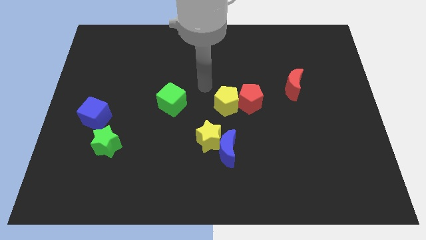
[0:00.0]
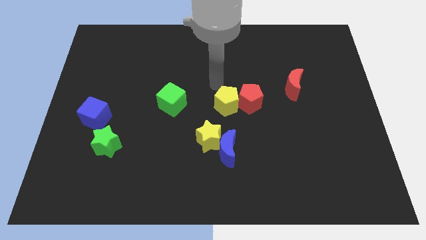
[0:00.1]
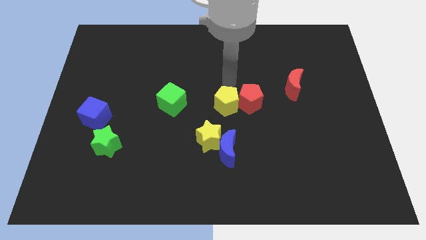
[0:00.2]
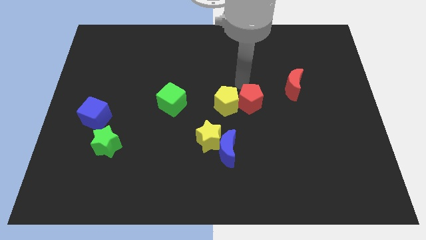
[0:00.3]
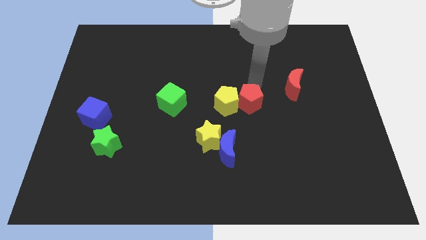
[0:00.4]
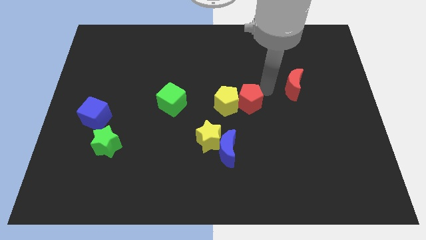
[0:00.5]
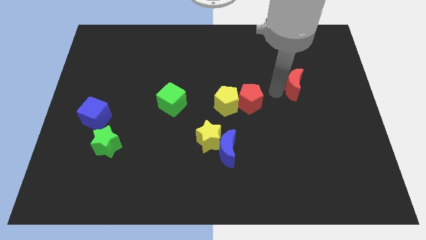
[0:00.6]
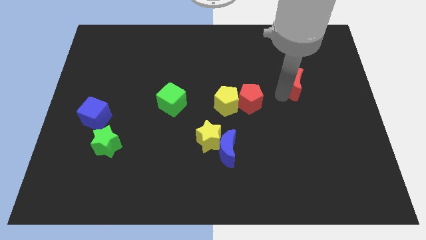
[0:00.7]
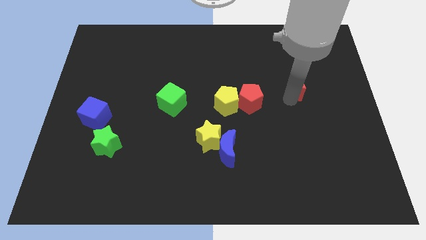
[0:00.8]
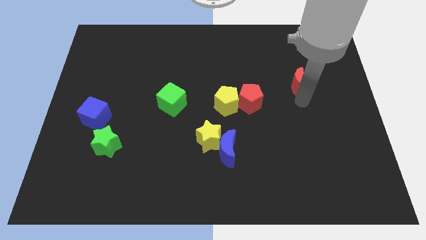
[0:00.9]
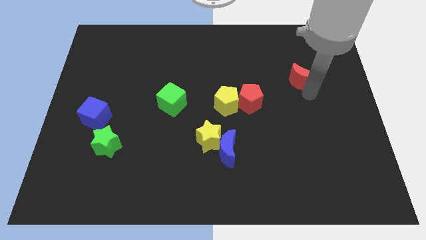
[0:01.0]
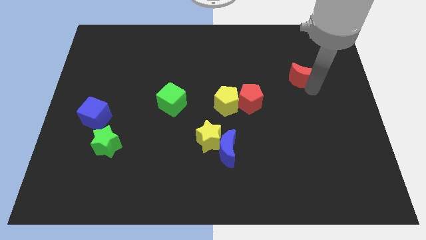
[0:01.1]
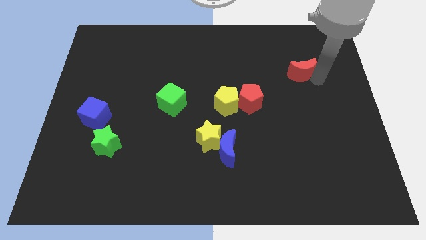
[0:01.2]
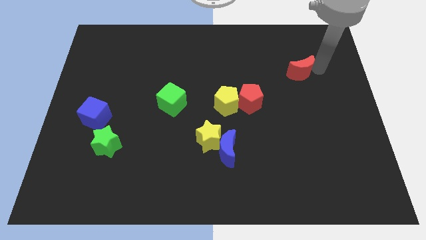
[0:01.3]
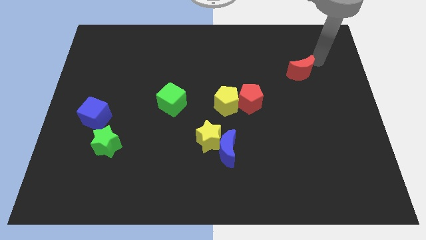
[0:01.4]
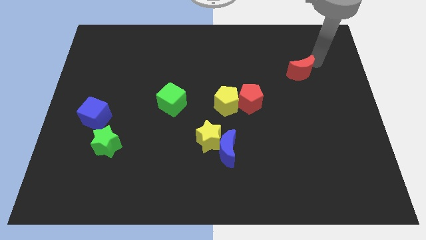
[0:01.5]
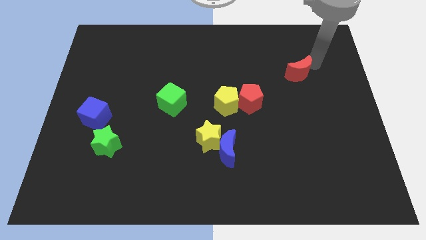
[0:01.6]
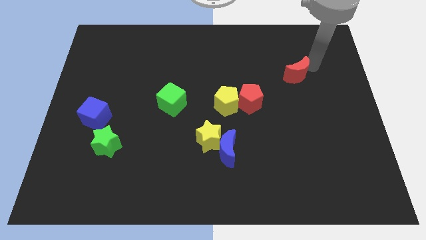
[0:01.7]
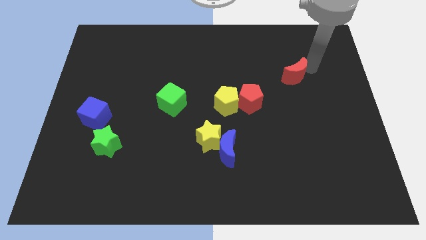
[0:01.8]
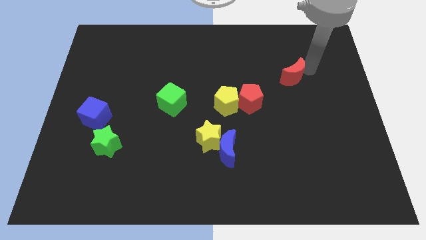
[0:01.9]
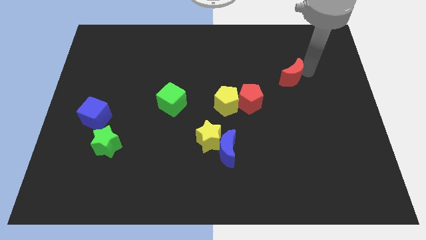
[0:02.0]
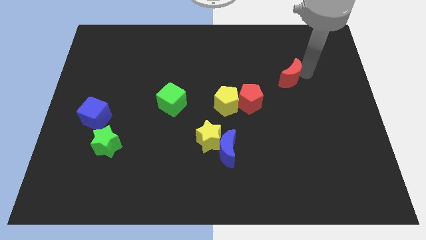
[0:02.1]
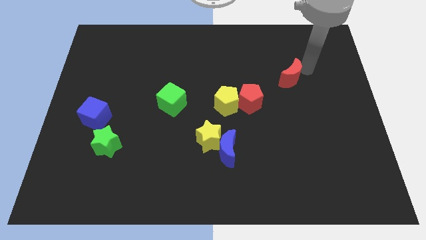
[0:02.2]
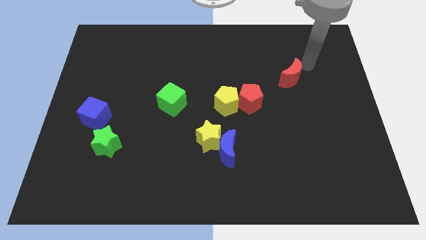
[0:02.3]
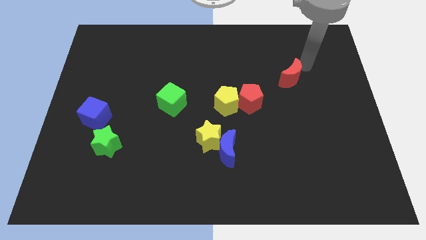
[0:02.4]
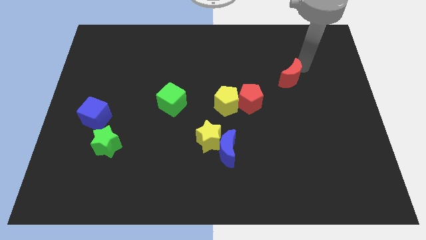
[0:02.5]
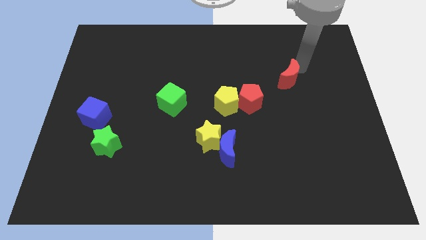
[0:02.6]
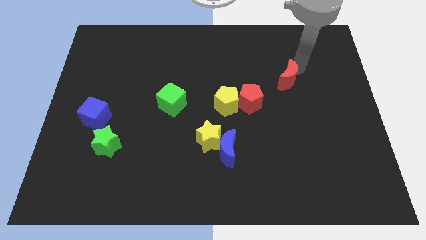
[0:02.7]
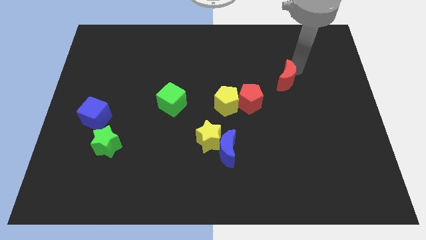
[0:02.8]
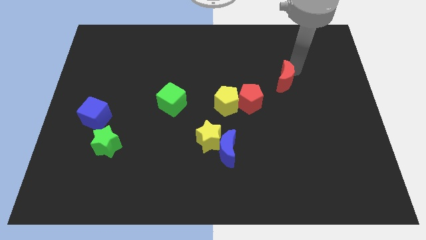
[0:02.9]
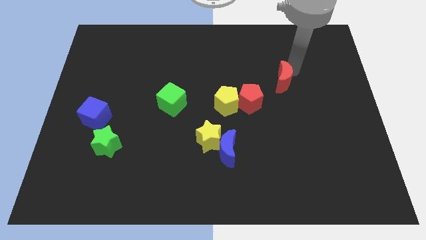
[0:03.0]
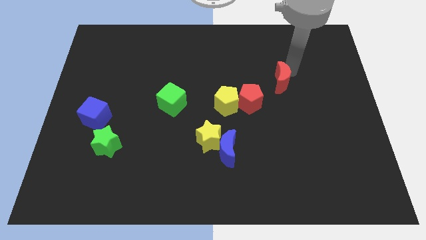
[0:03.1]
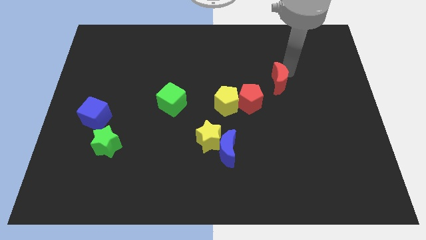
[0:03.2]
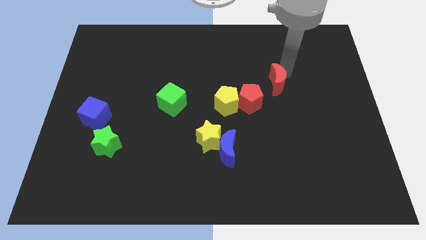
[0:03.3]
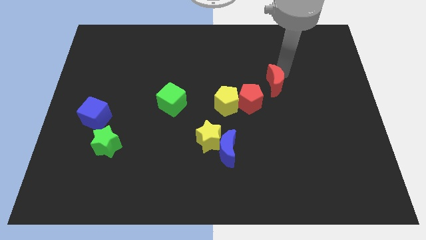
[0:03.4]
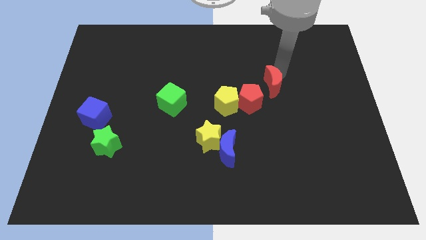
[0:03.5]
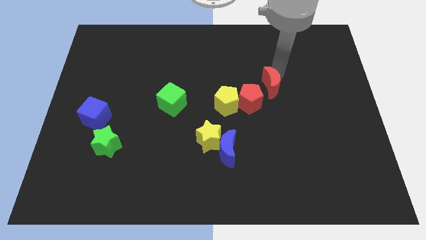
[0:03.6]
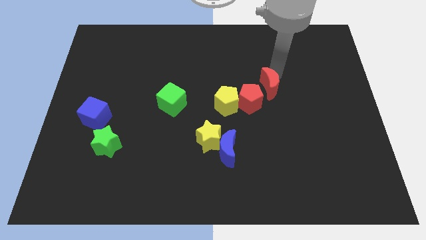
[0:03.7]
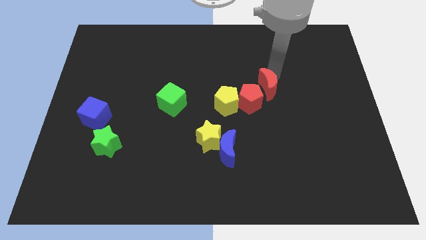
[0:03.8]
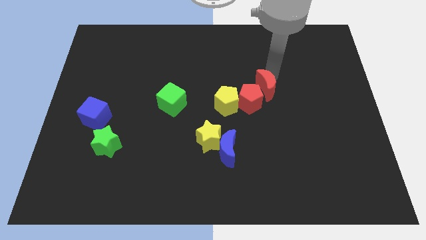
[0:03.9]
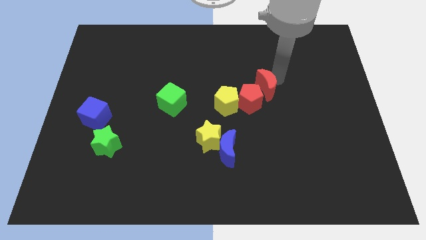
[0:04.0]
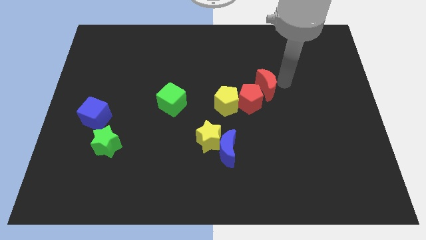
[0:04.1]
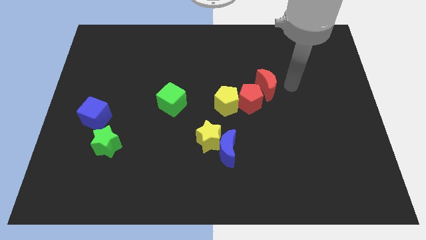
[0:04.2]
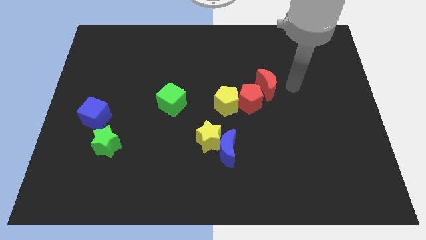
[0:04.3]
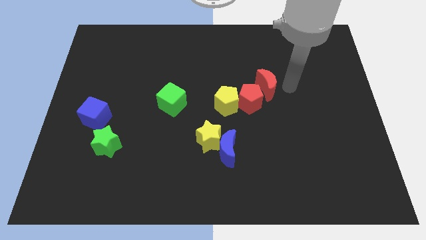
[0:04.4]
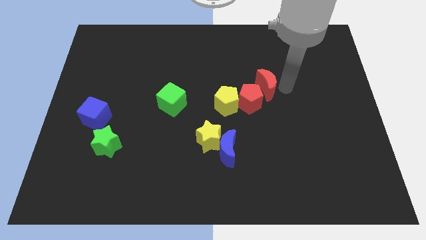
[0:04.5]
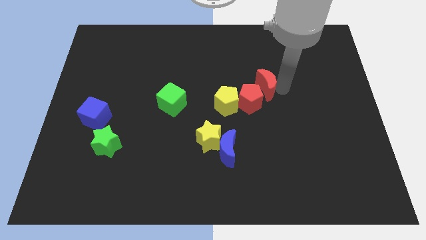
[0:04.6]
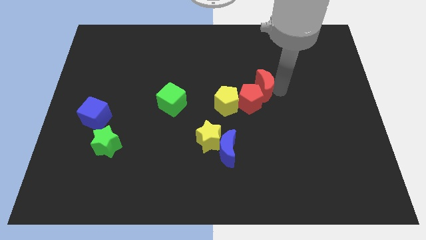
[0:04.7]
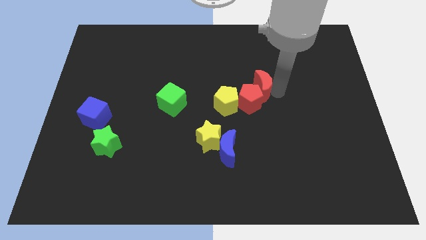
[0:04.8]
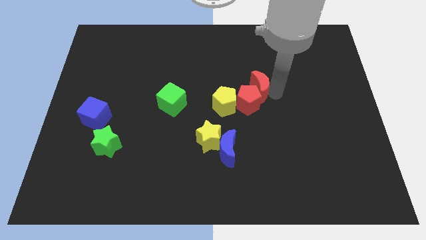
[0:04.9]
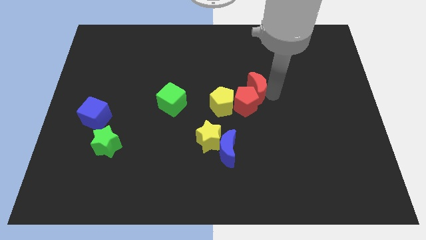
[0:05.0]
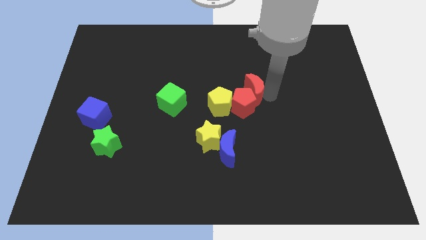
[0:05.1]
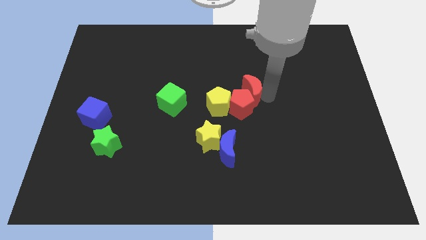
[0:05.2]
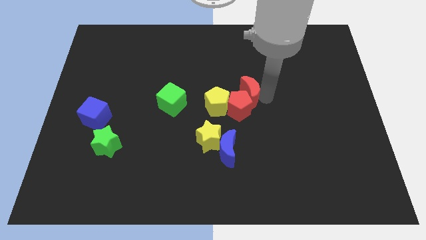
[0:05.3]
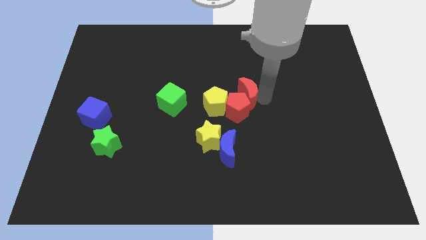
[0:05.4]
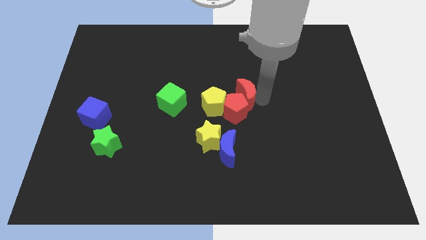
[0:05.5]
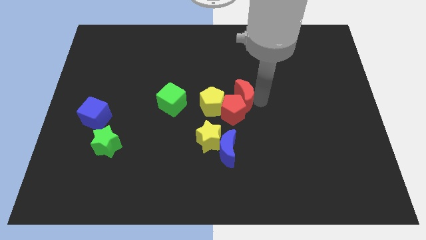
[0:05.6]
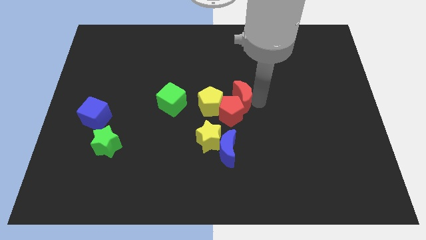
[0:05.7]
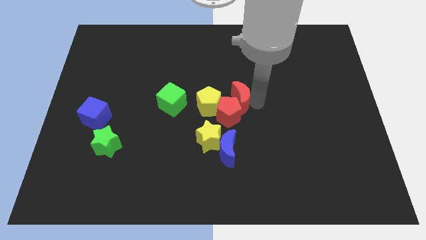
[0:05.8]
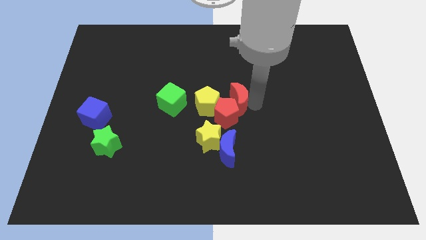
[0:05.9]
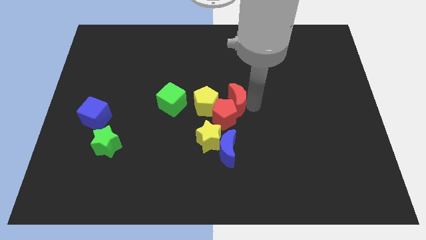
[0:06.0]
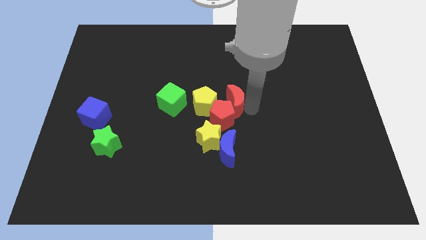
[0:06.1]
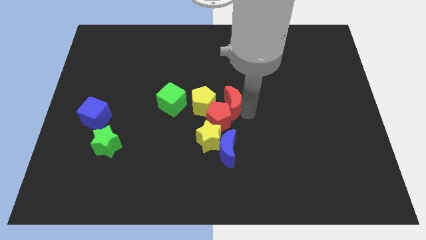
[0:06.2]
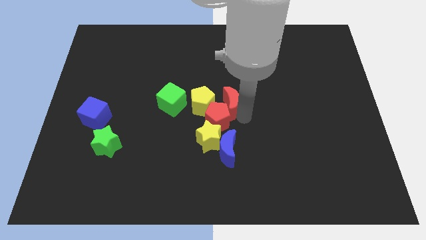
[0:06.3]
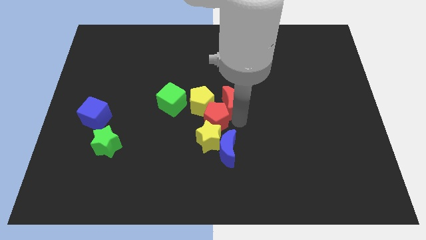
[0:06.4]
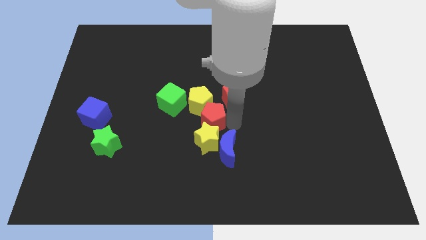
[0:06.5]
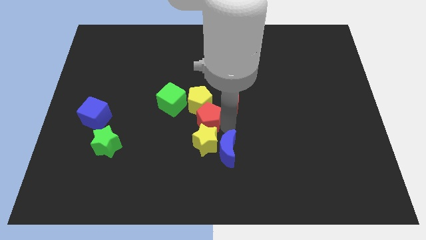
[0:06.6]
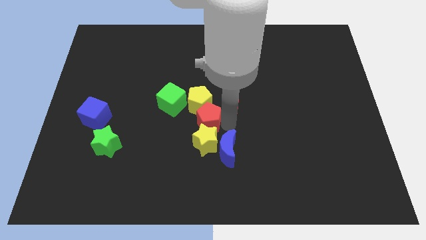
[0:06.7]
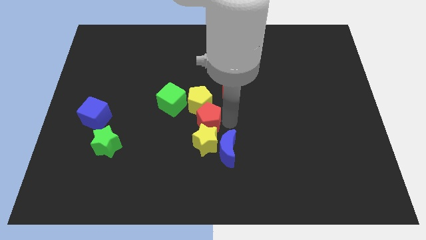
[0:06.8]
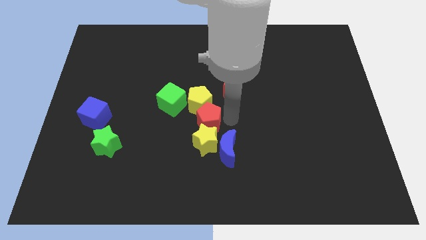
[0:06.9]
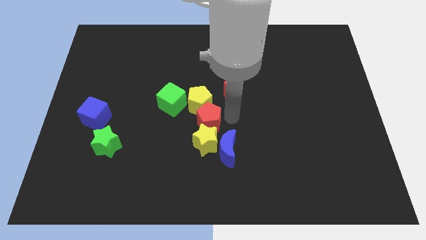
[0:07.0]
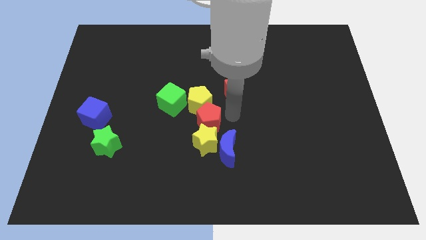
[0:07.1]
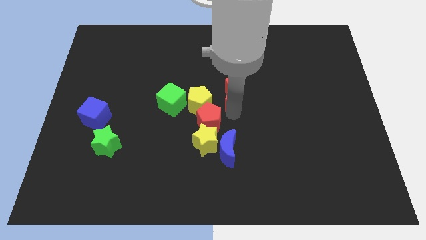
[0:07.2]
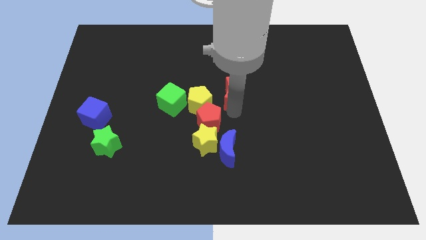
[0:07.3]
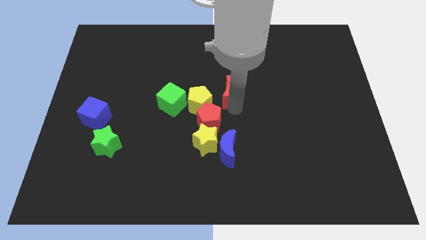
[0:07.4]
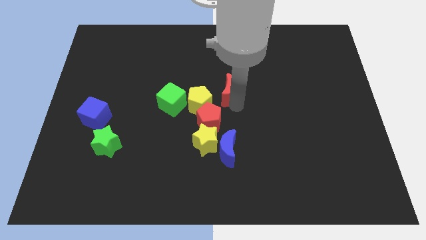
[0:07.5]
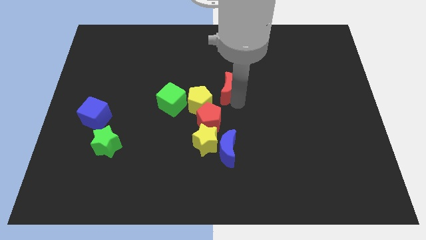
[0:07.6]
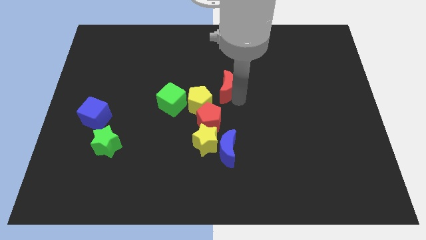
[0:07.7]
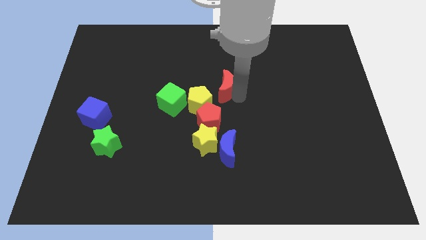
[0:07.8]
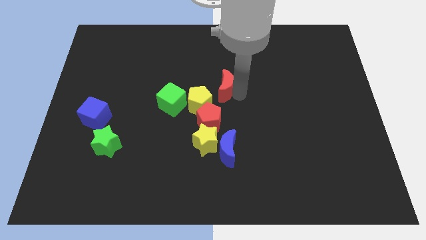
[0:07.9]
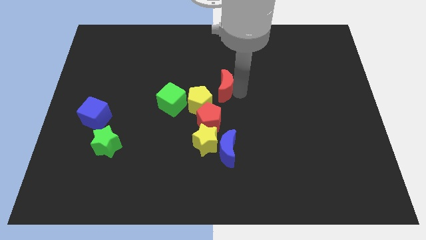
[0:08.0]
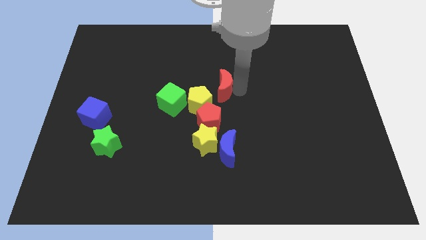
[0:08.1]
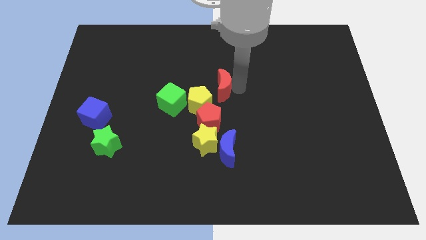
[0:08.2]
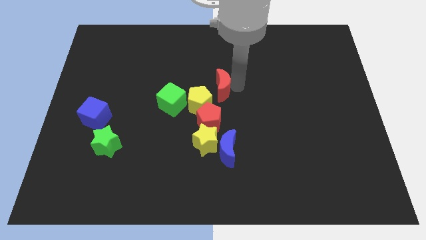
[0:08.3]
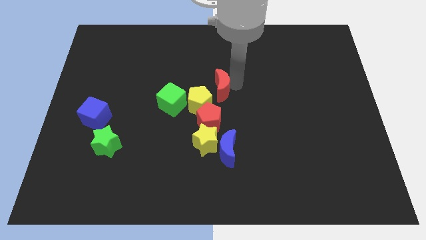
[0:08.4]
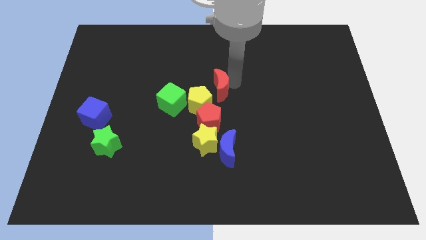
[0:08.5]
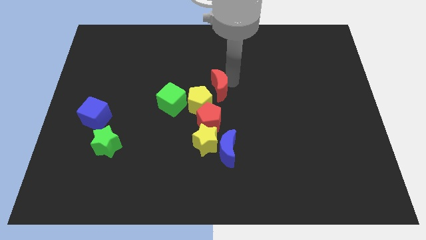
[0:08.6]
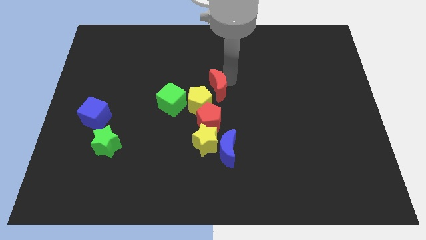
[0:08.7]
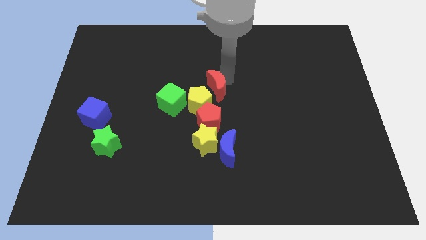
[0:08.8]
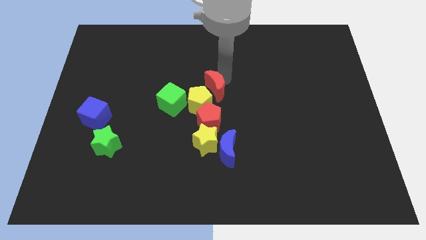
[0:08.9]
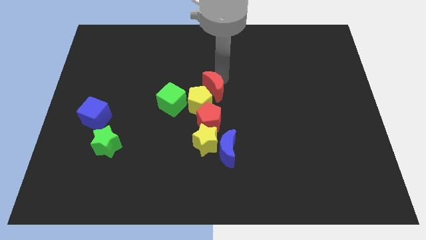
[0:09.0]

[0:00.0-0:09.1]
slide the red moon towards the yellow pentagon
